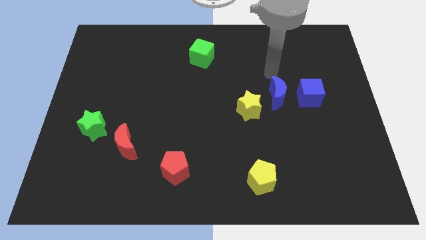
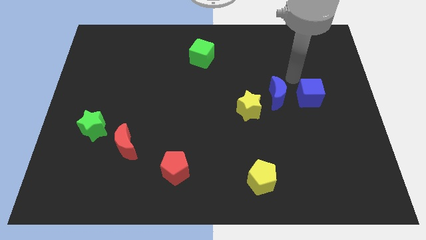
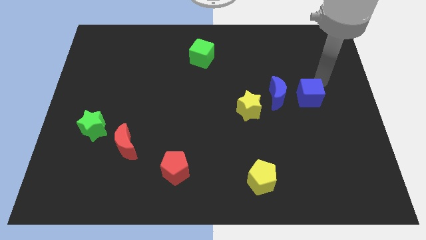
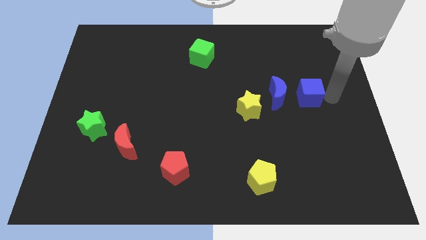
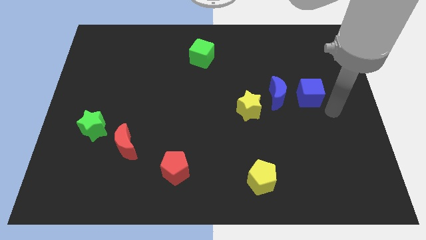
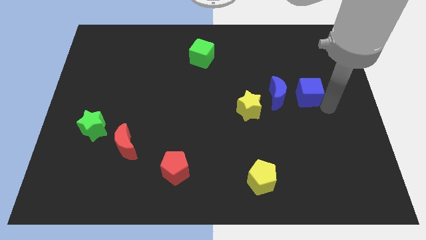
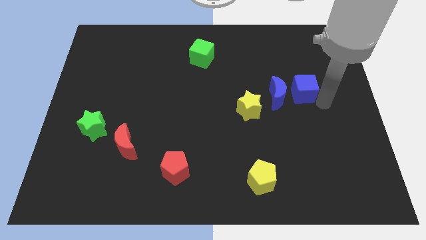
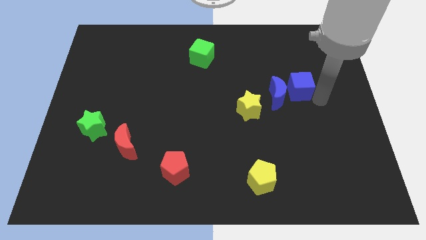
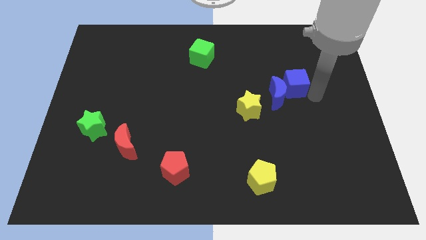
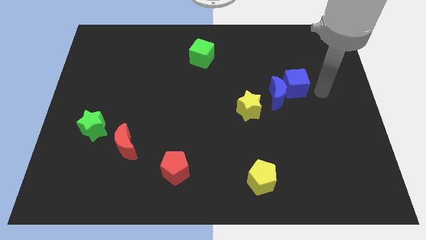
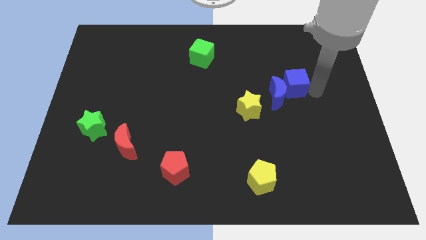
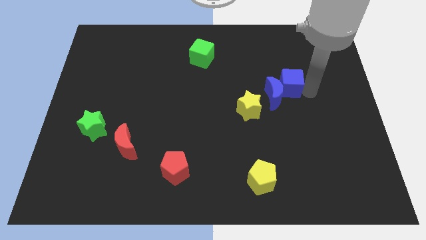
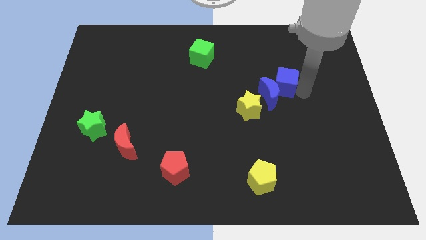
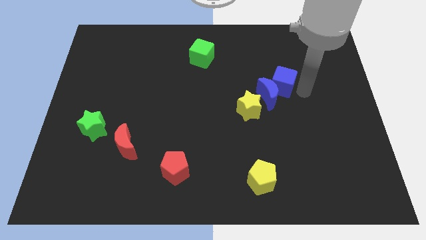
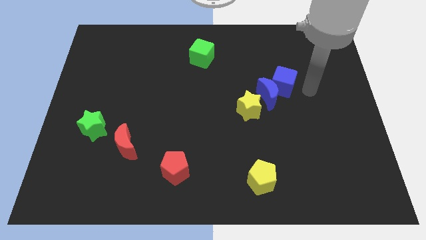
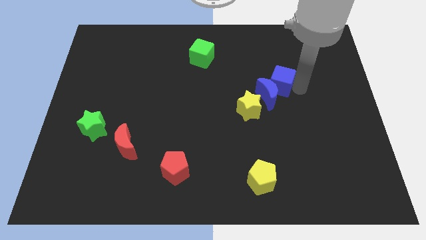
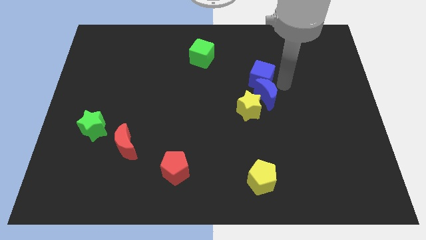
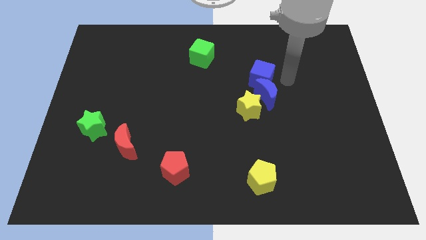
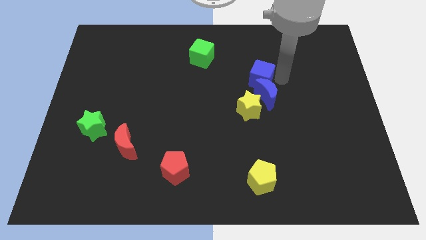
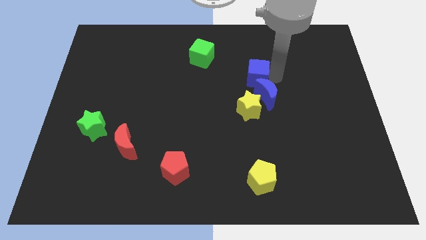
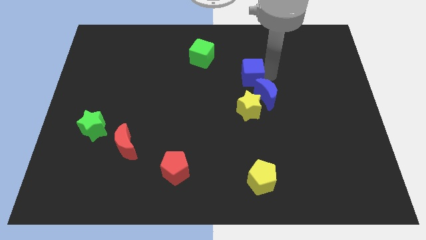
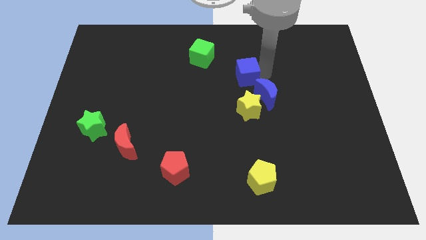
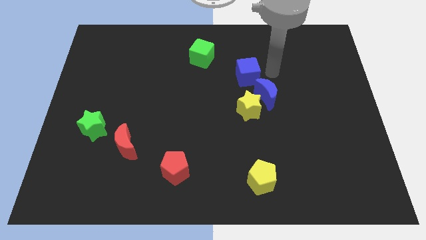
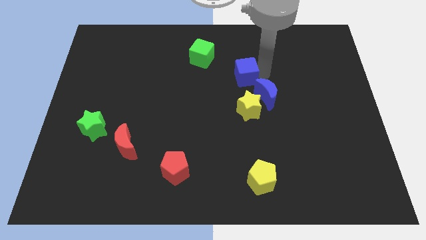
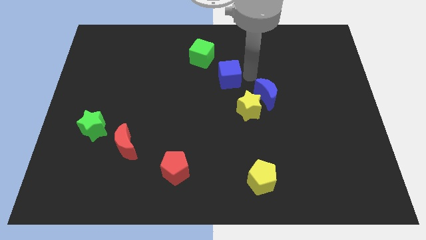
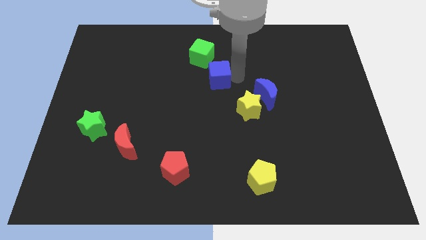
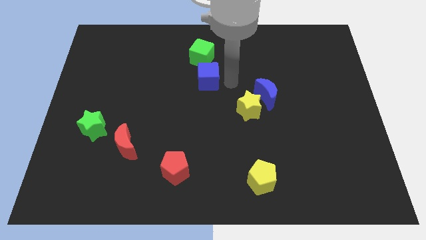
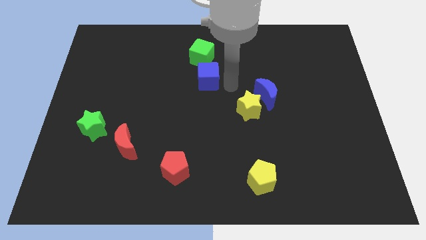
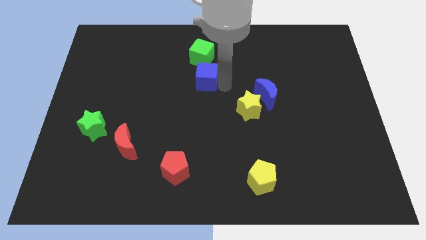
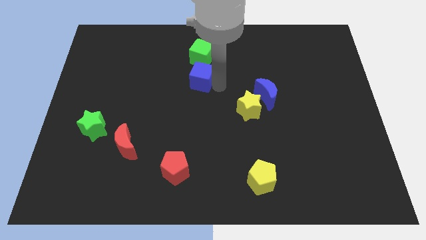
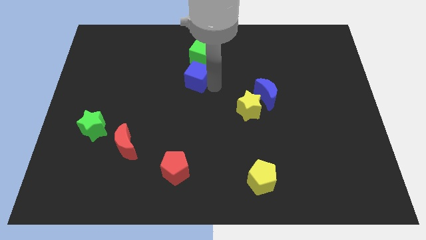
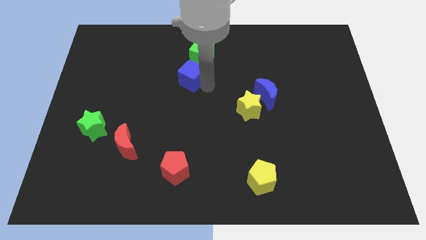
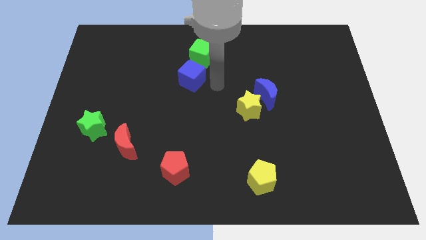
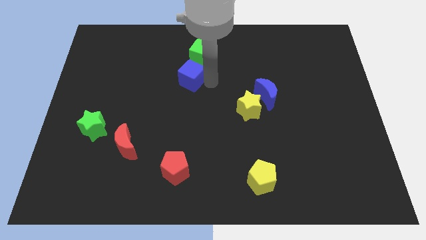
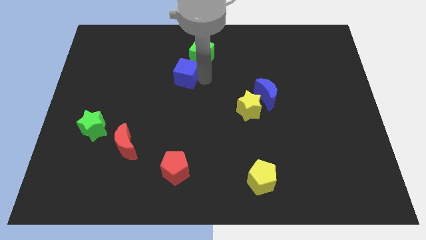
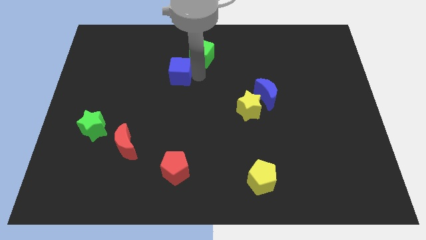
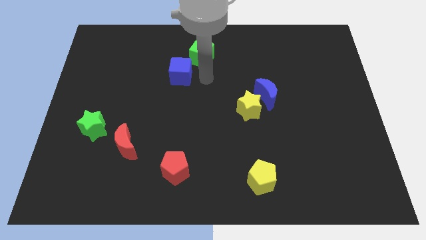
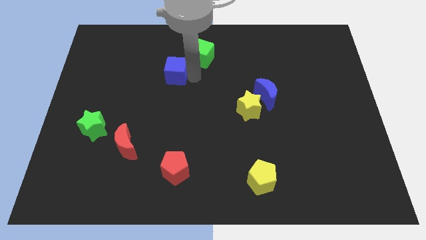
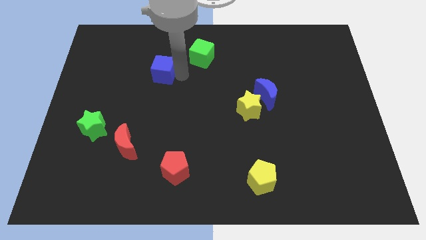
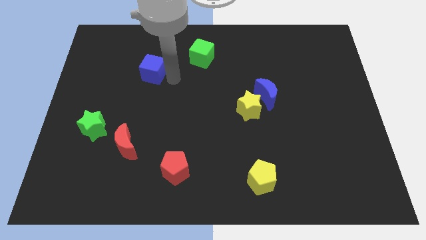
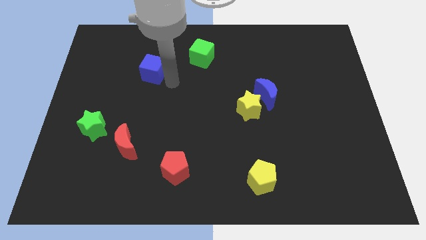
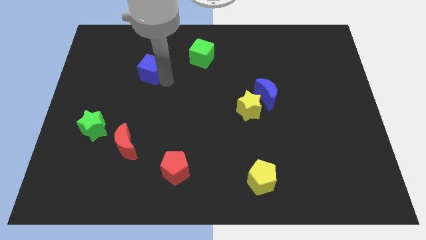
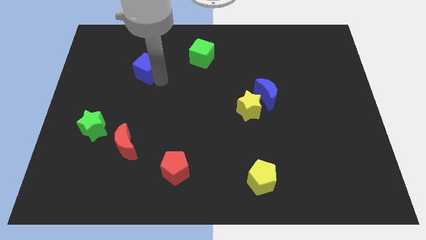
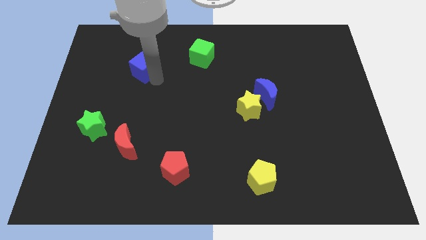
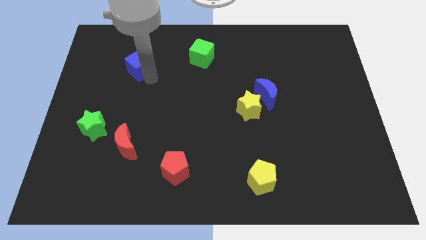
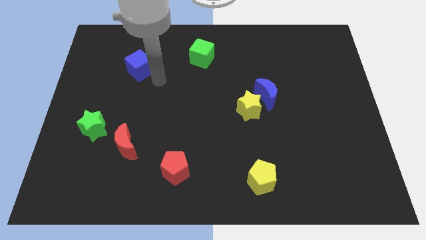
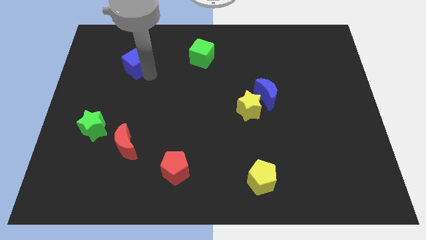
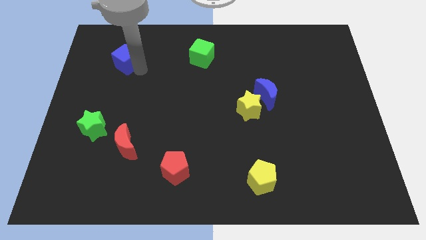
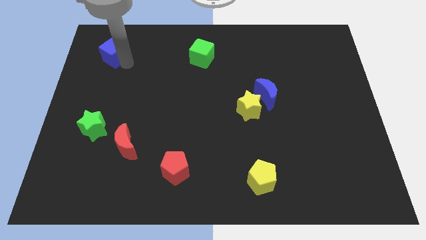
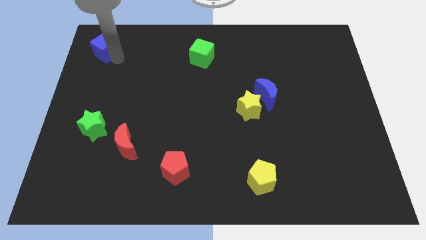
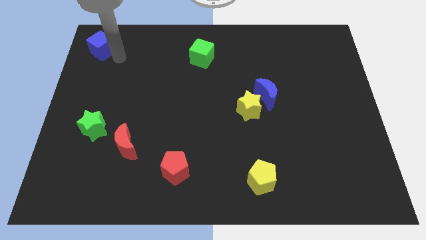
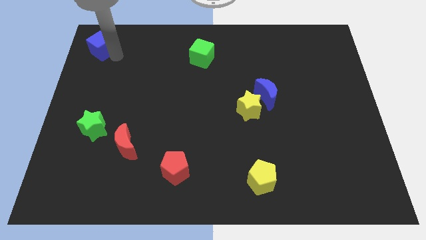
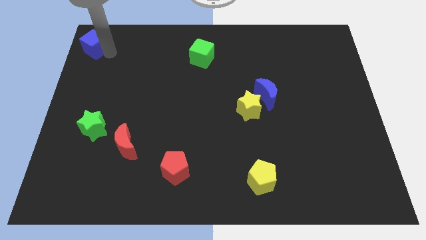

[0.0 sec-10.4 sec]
slide the blue cube to the upper left corner

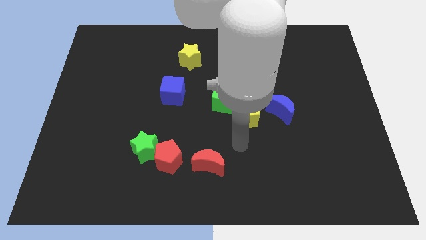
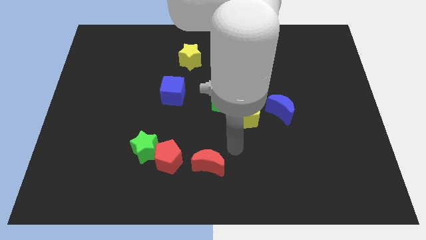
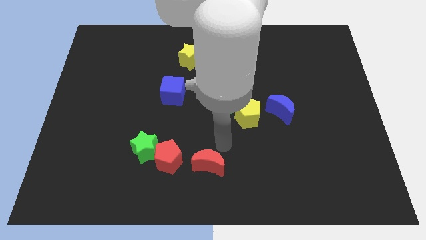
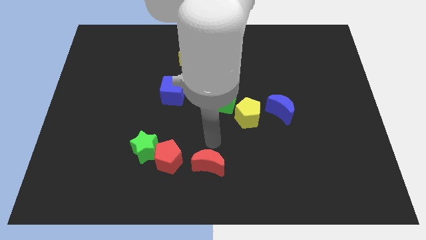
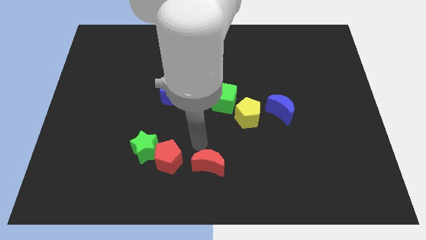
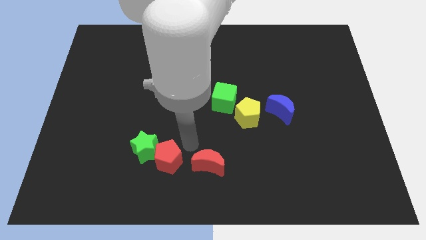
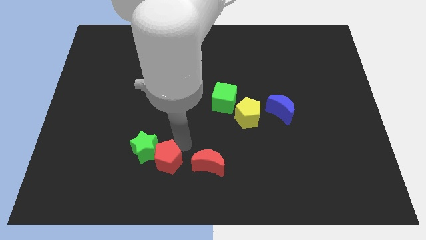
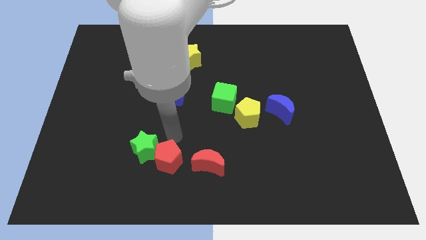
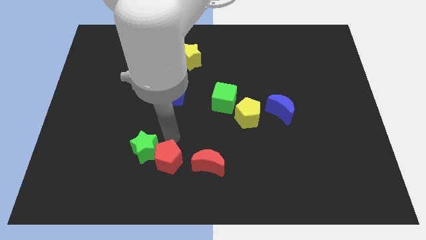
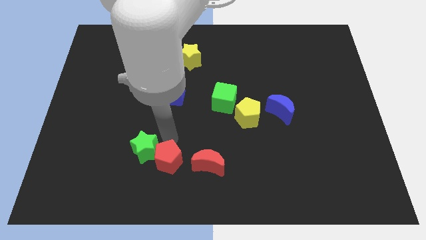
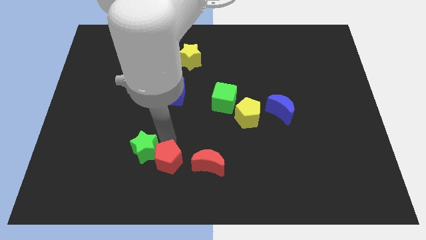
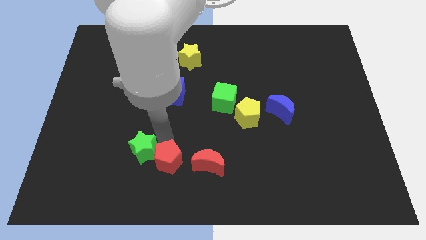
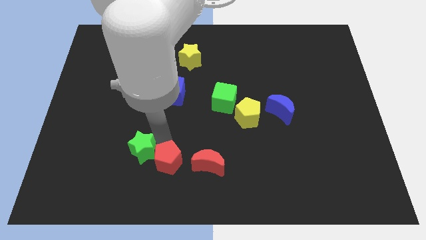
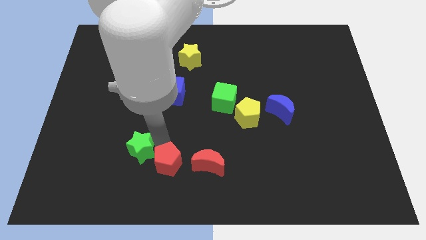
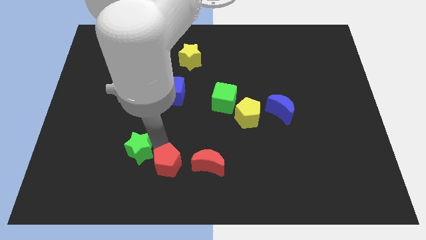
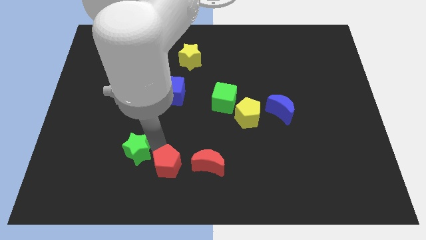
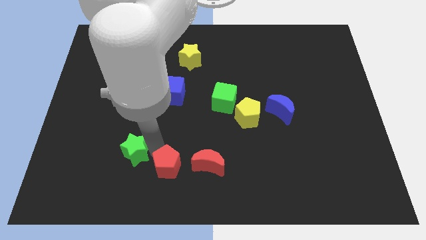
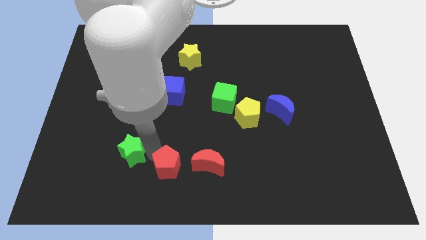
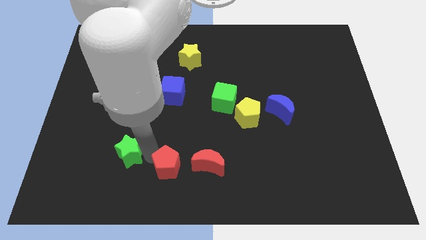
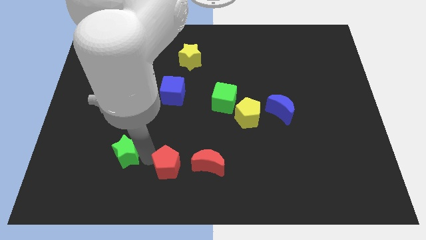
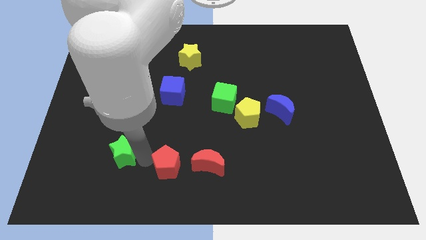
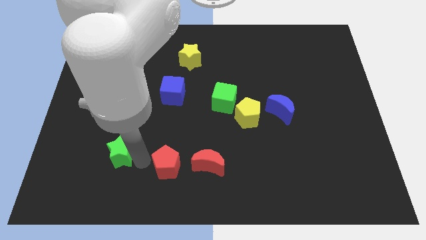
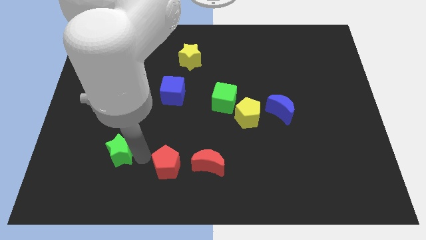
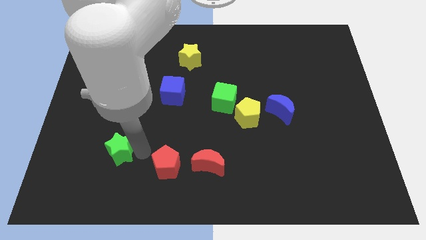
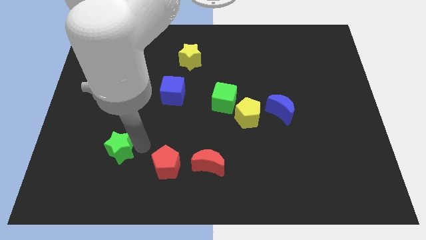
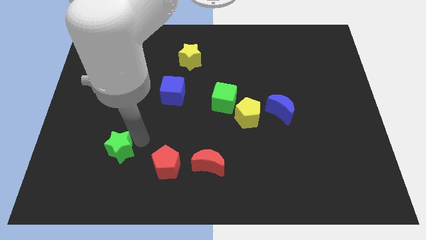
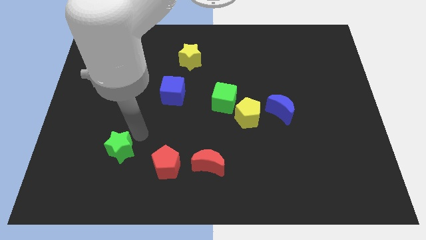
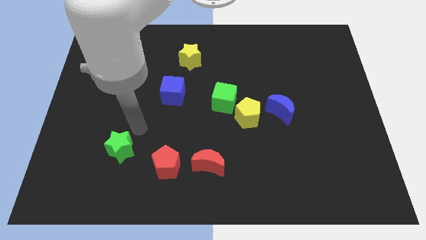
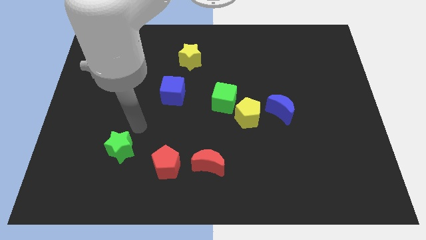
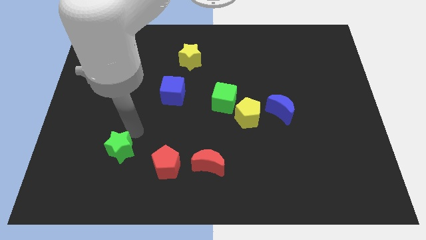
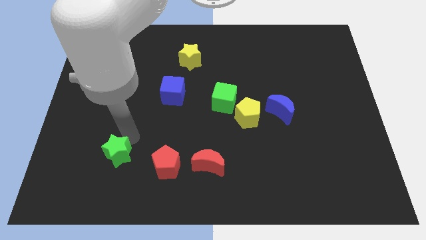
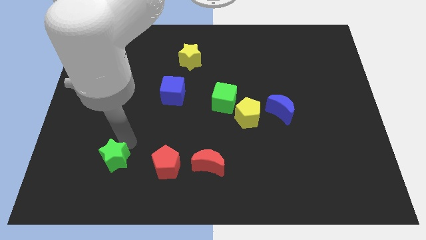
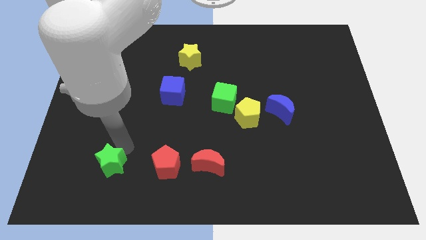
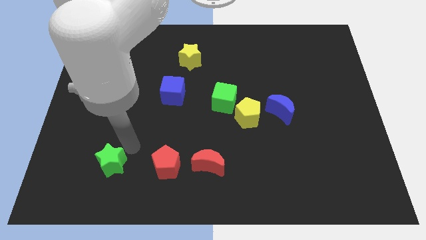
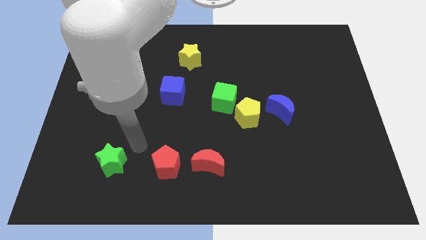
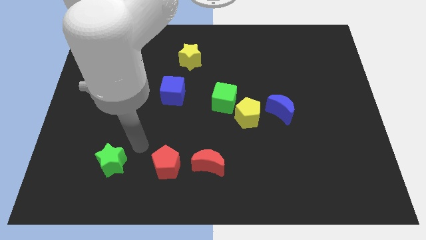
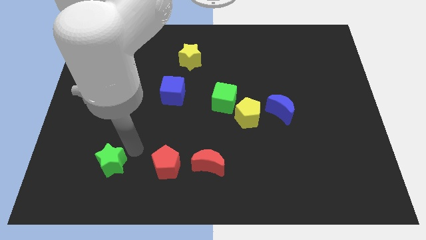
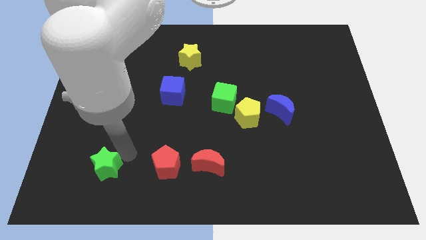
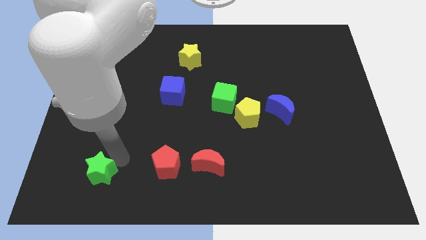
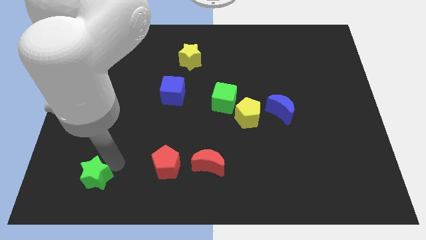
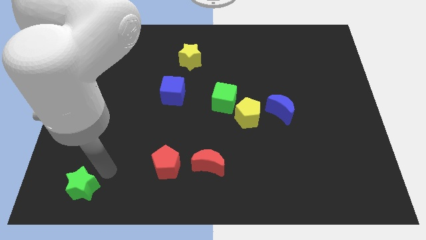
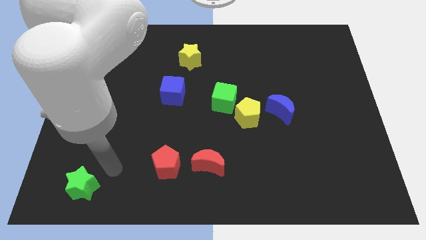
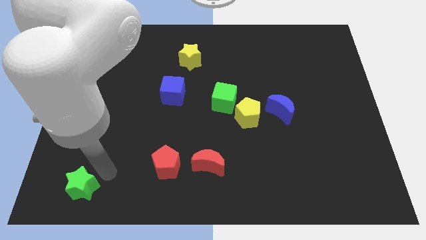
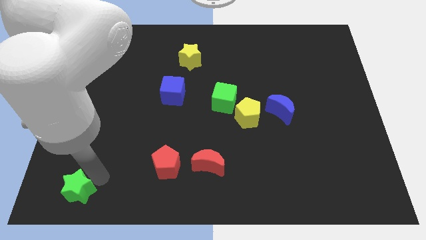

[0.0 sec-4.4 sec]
push the green star to the lower left corner
